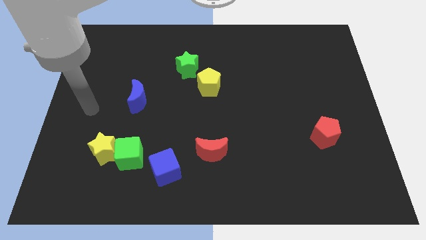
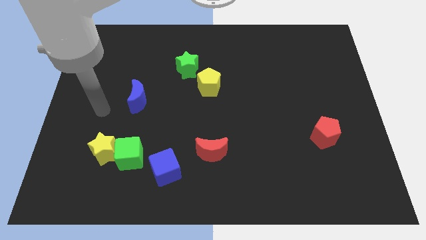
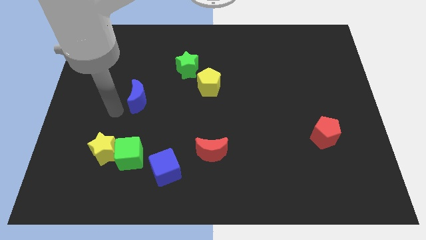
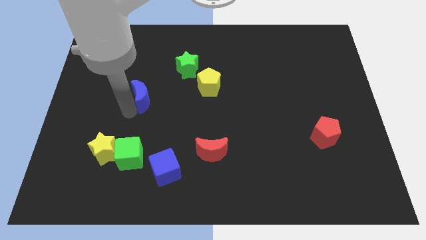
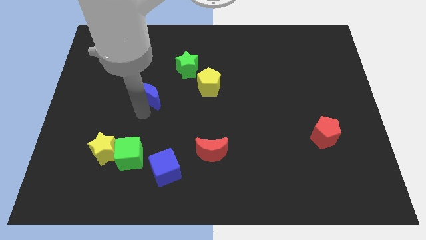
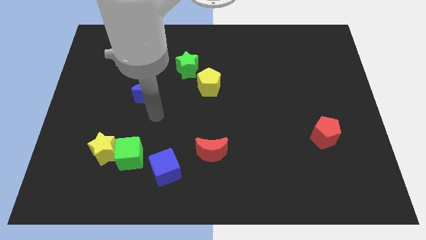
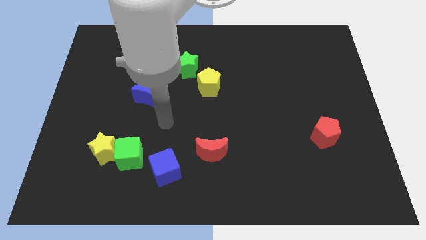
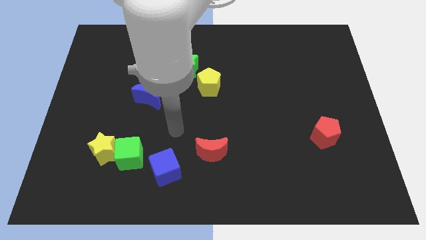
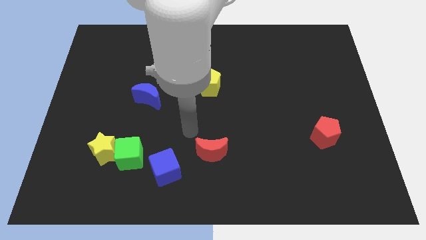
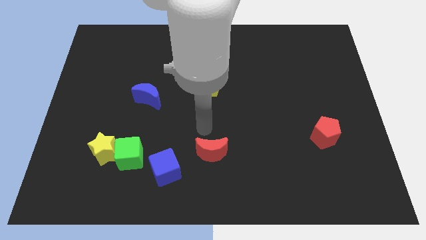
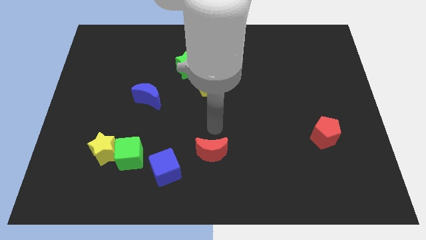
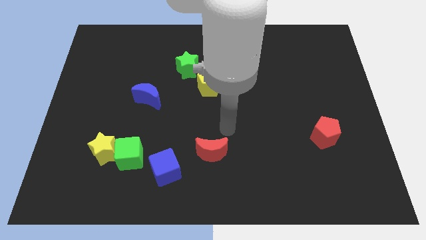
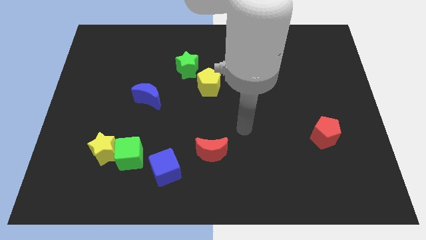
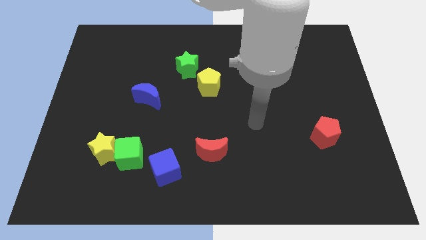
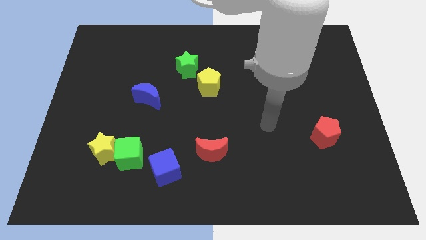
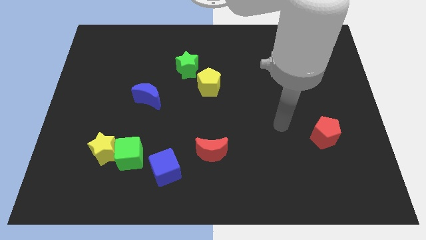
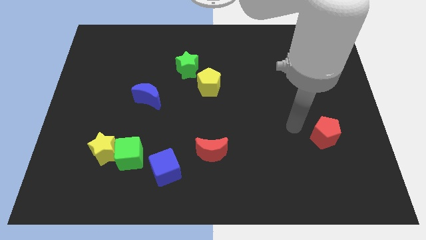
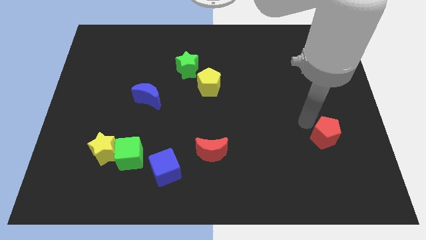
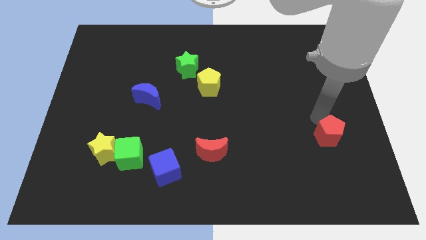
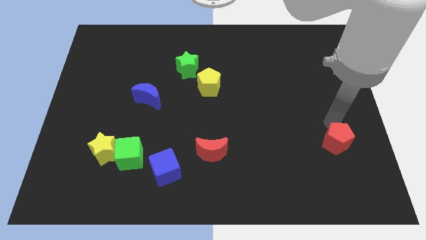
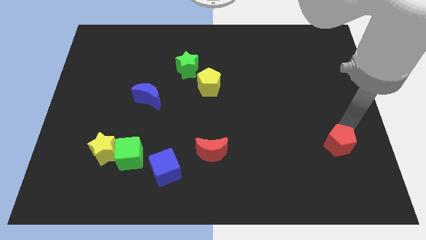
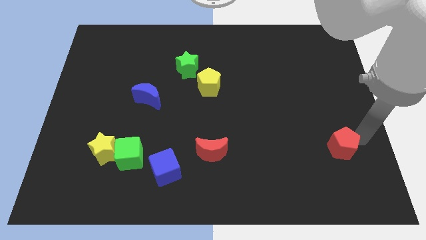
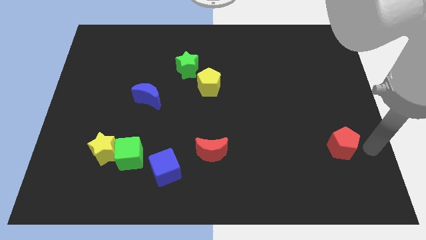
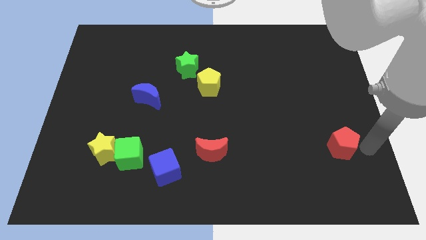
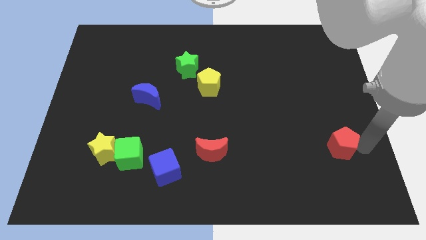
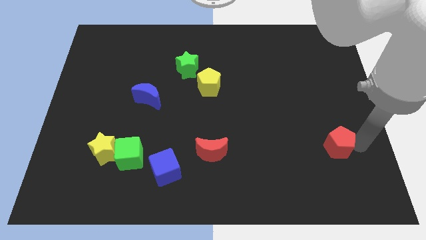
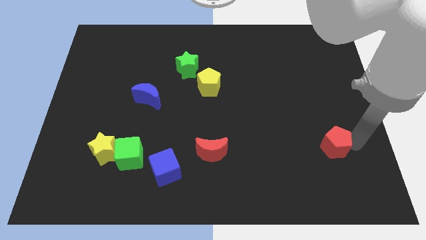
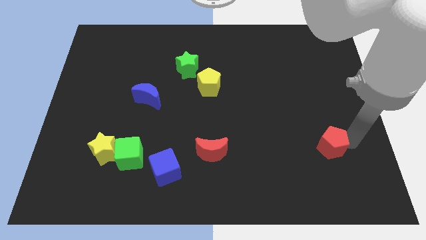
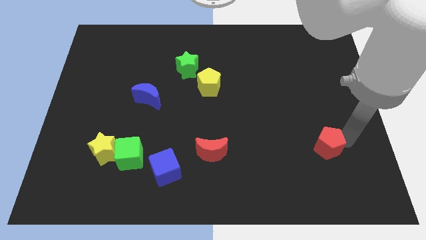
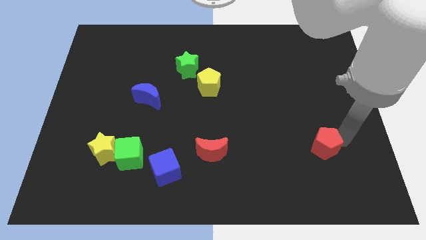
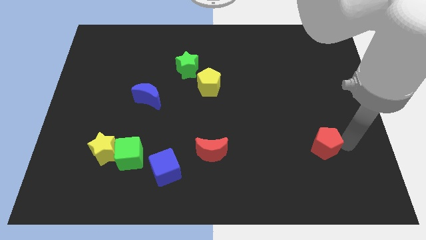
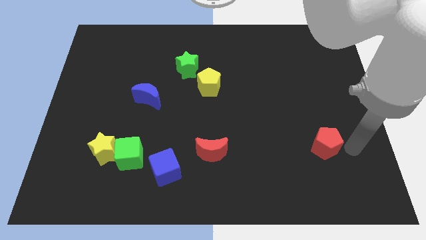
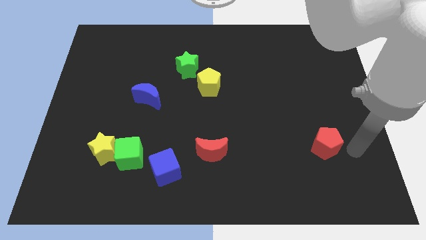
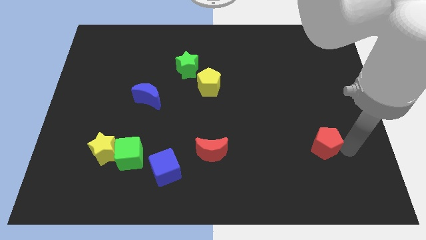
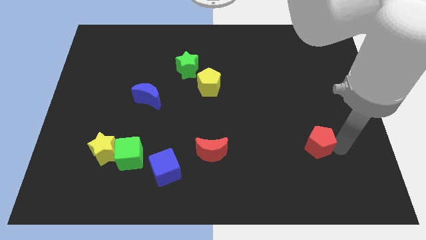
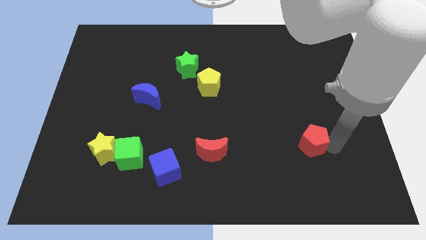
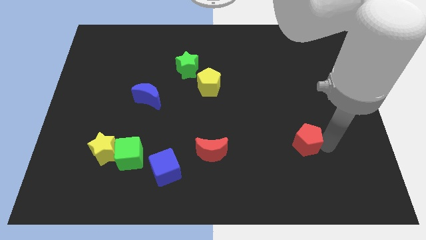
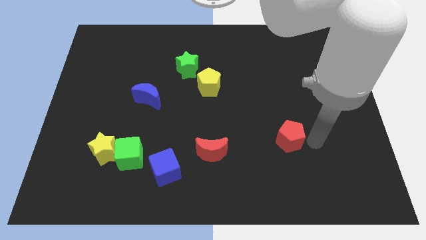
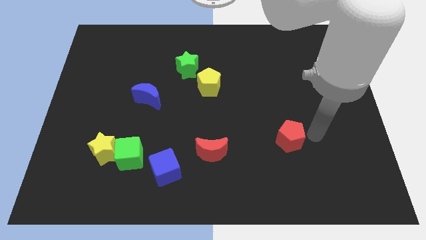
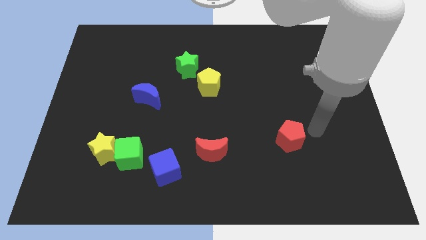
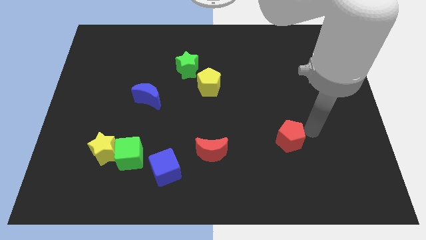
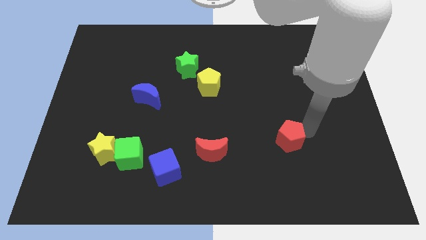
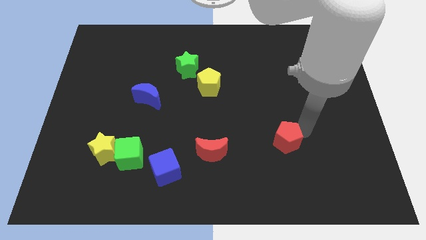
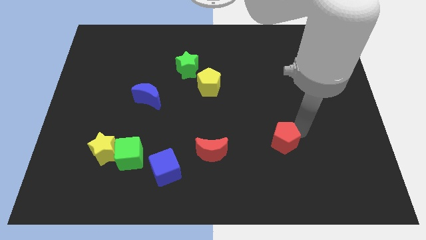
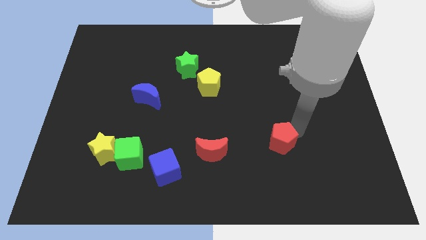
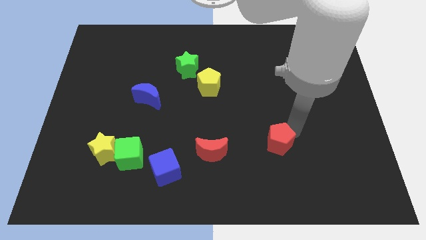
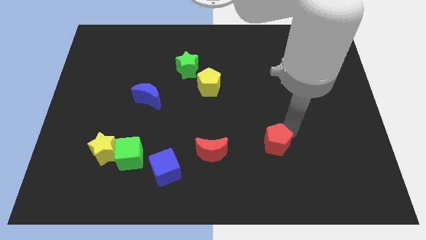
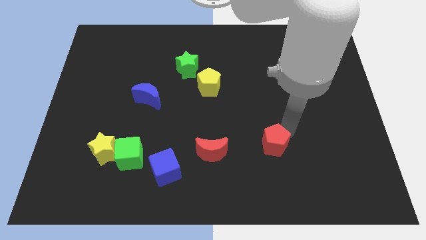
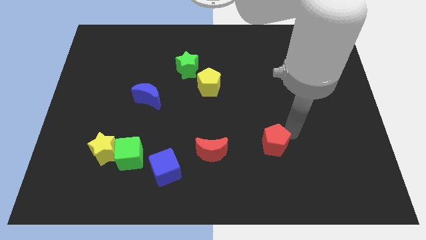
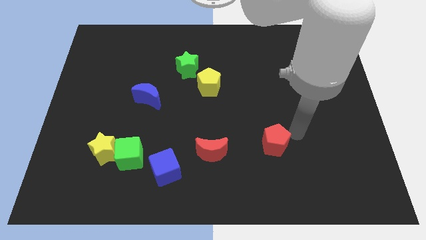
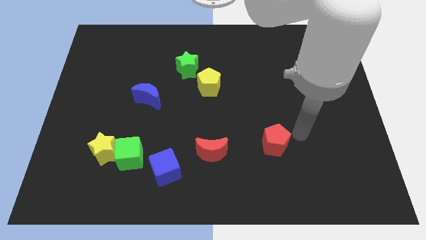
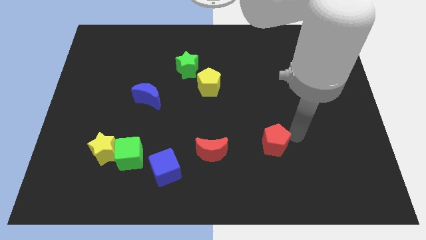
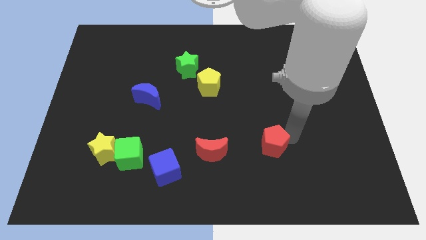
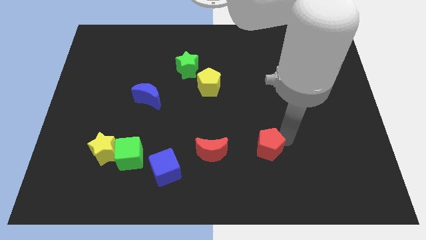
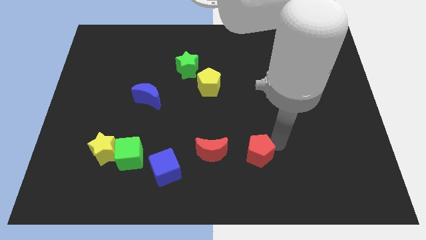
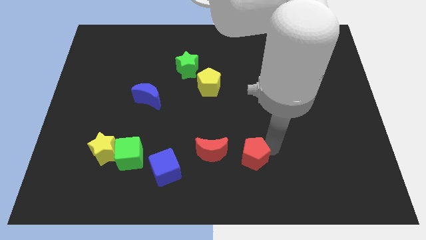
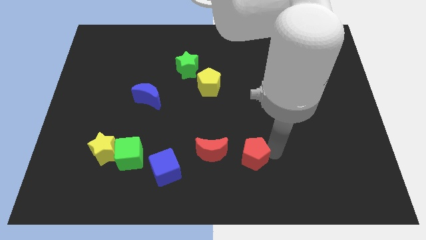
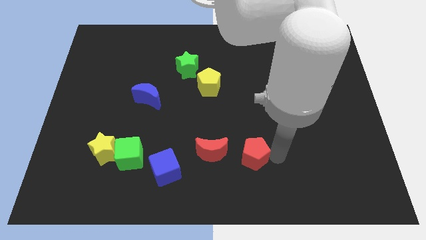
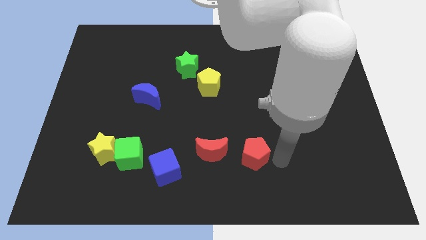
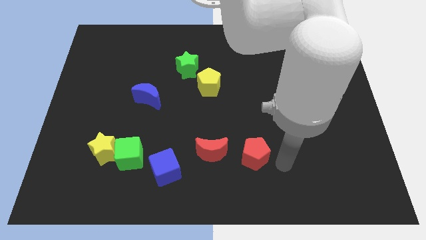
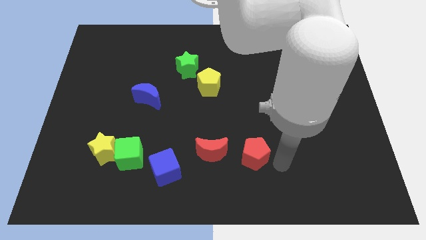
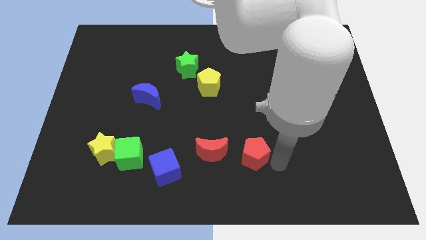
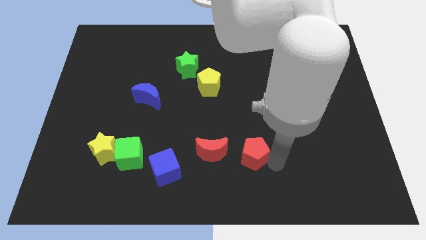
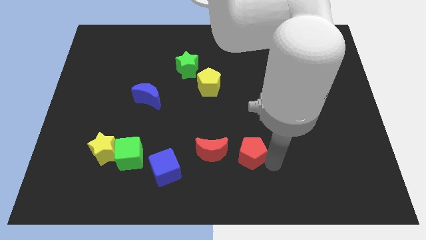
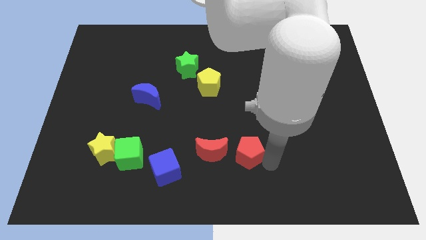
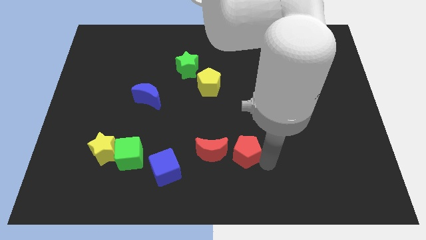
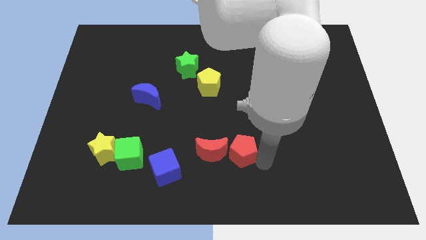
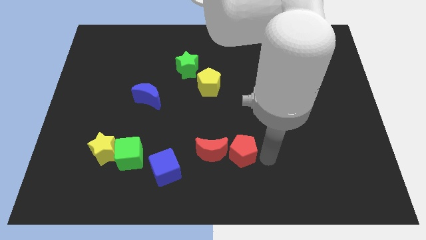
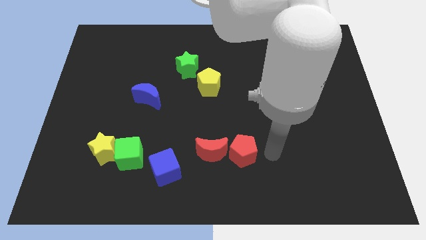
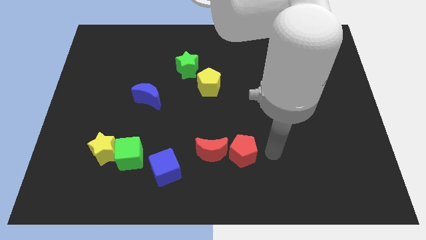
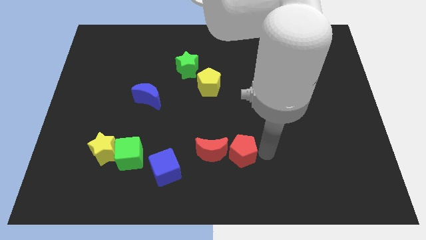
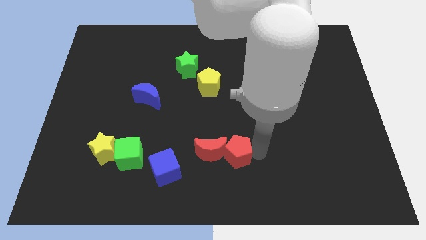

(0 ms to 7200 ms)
slide the red pentagon close to the red moon
